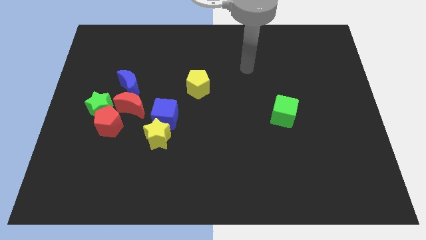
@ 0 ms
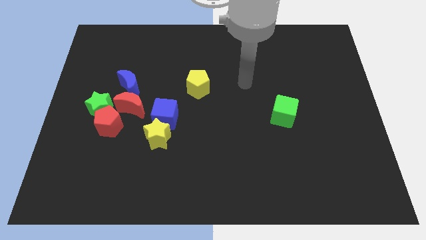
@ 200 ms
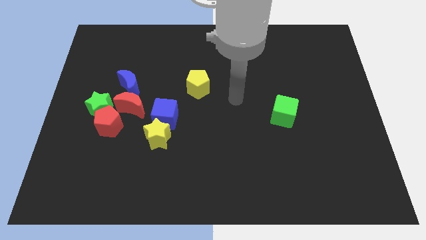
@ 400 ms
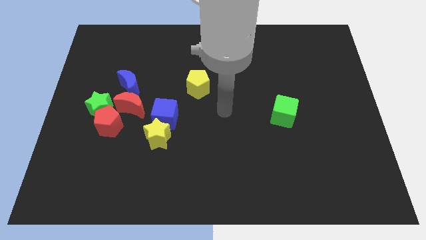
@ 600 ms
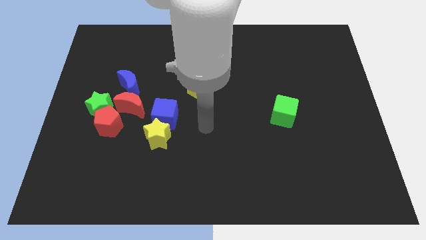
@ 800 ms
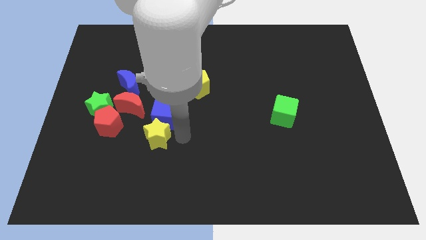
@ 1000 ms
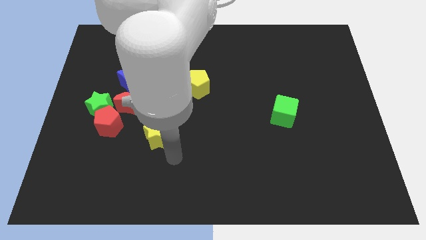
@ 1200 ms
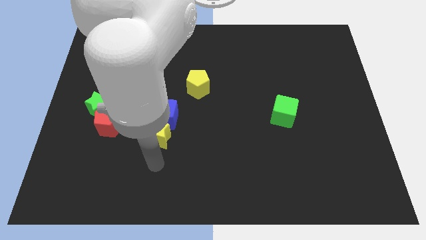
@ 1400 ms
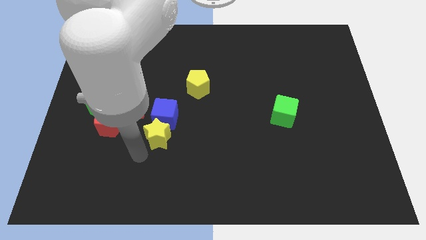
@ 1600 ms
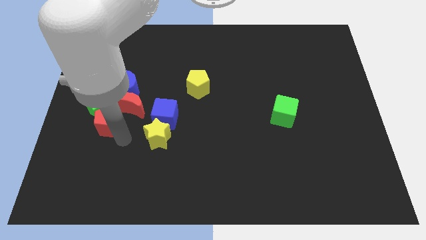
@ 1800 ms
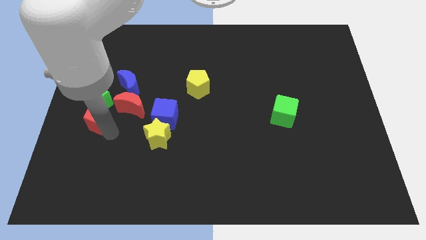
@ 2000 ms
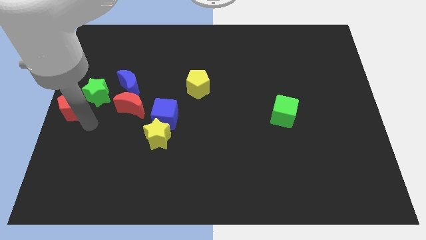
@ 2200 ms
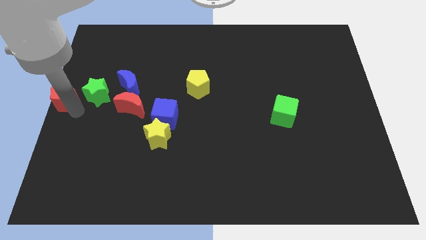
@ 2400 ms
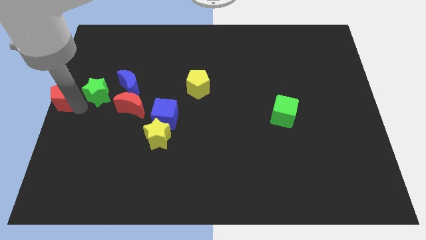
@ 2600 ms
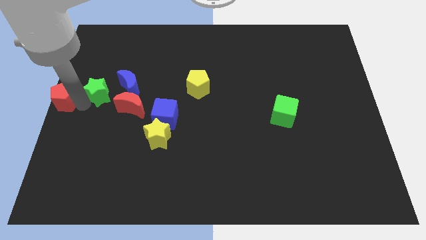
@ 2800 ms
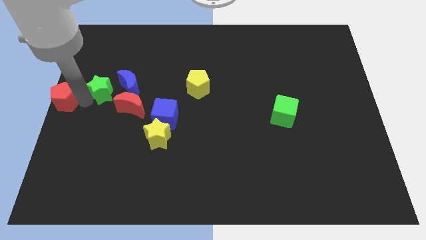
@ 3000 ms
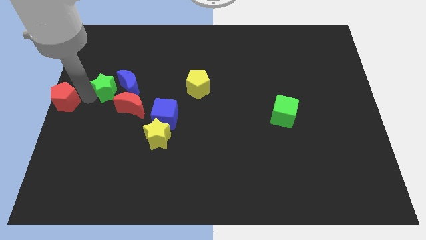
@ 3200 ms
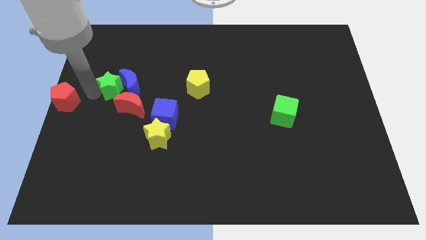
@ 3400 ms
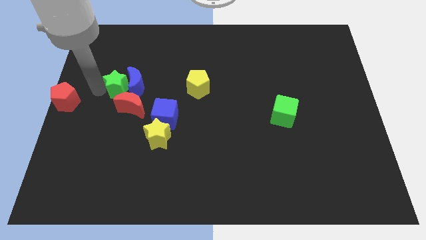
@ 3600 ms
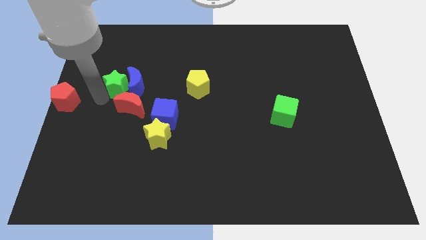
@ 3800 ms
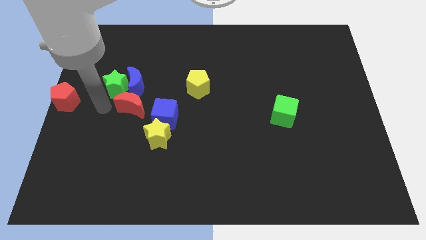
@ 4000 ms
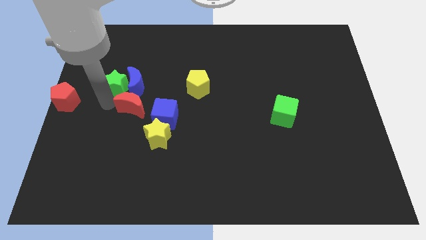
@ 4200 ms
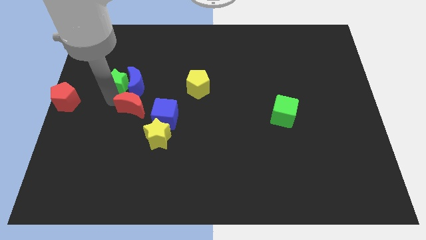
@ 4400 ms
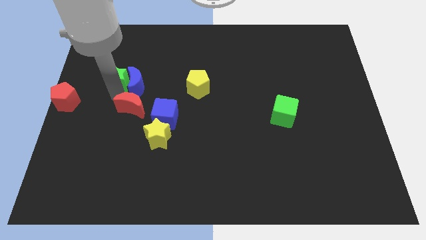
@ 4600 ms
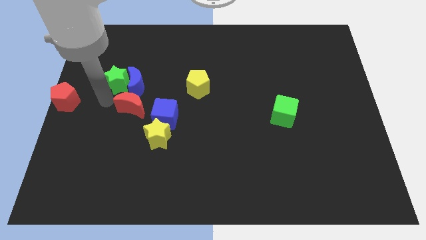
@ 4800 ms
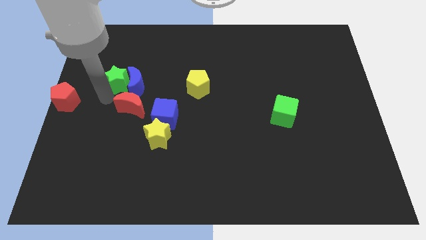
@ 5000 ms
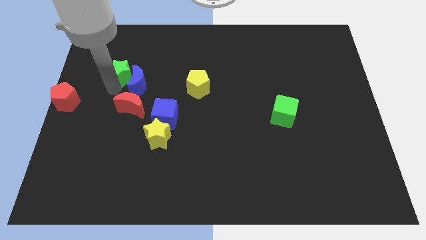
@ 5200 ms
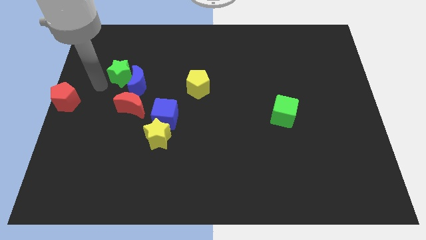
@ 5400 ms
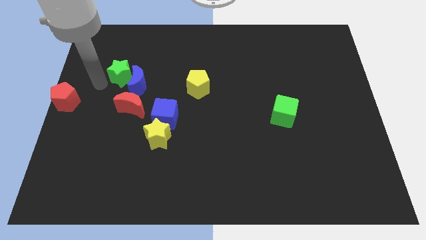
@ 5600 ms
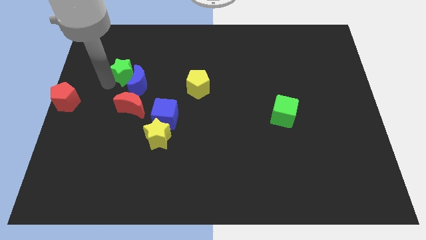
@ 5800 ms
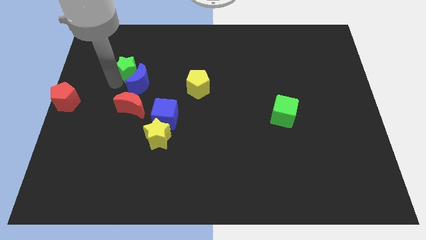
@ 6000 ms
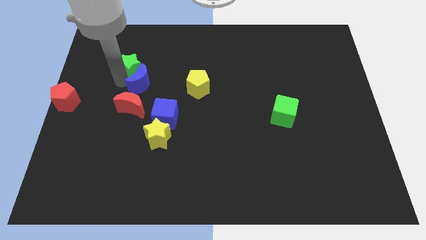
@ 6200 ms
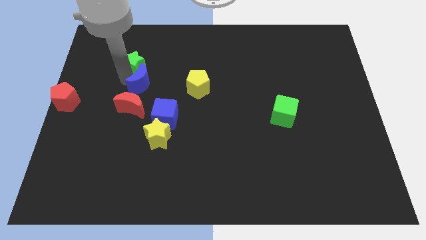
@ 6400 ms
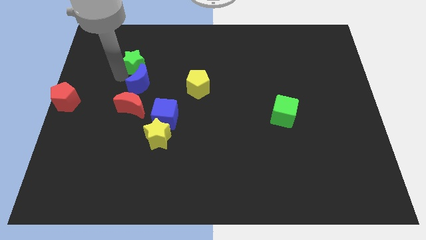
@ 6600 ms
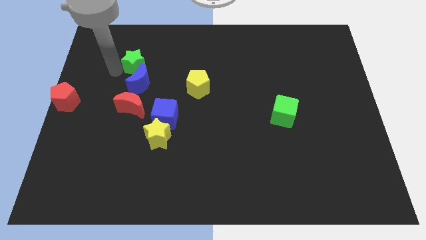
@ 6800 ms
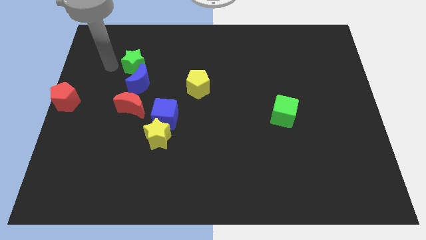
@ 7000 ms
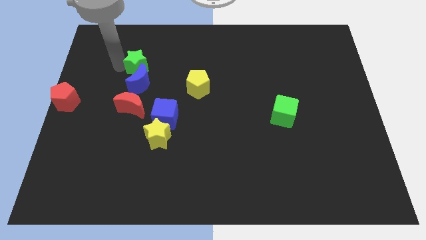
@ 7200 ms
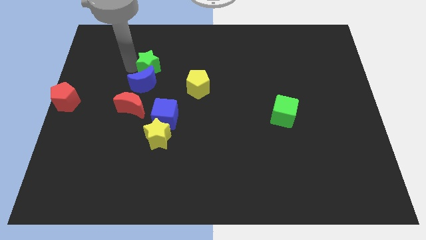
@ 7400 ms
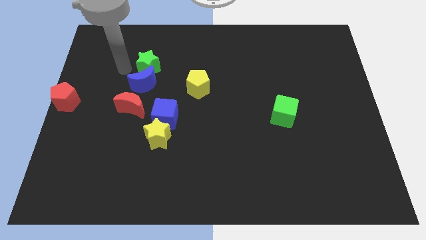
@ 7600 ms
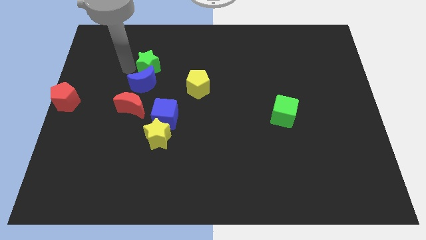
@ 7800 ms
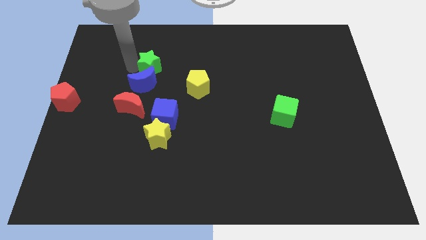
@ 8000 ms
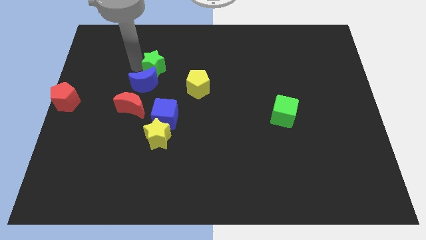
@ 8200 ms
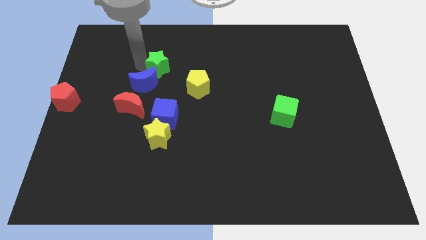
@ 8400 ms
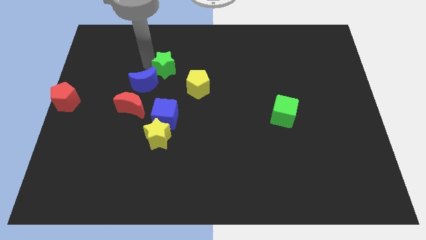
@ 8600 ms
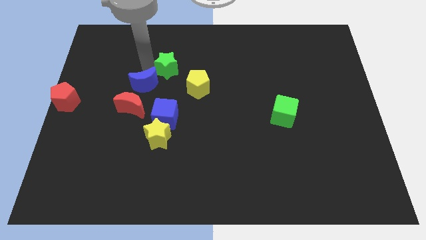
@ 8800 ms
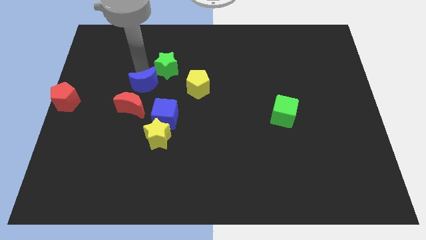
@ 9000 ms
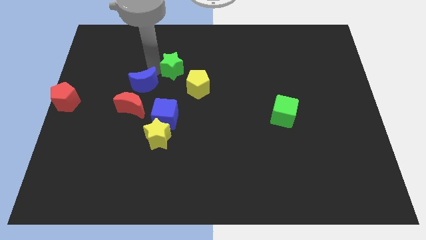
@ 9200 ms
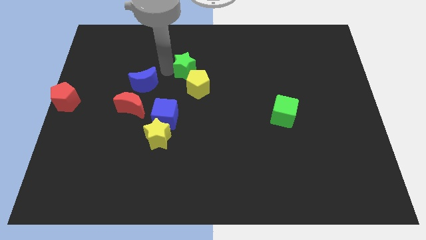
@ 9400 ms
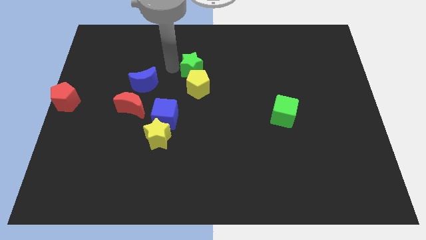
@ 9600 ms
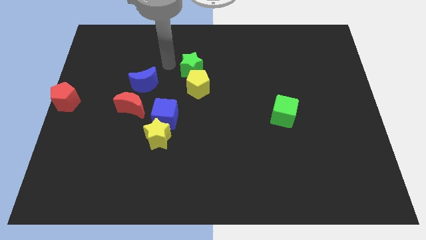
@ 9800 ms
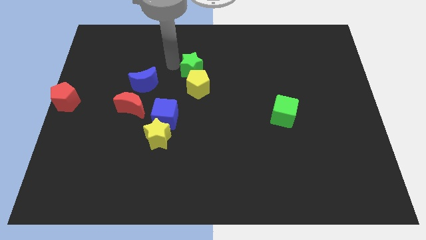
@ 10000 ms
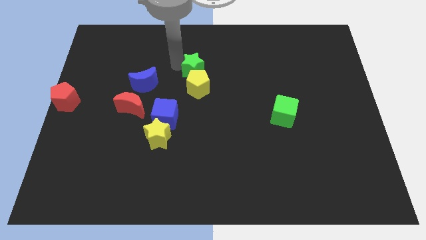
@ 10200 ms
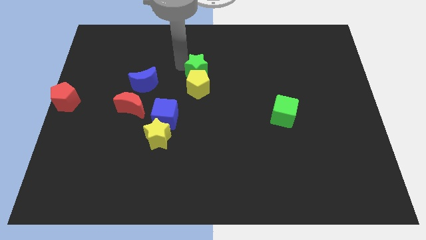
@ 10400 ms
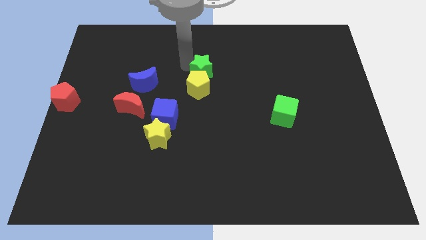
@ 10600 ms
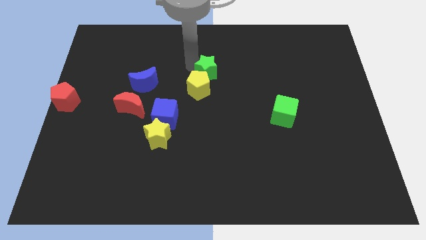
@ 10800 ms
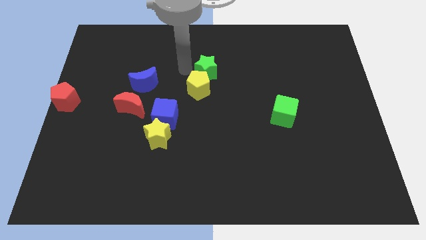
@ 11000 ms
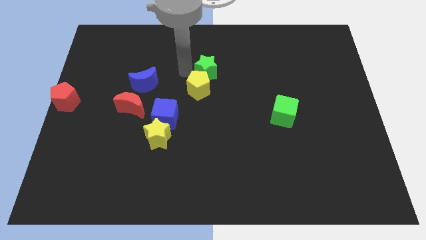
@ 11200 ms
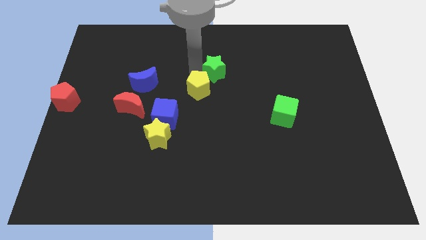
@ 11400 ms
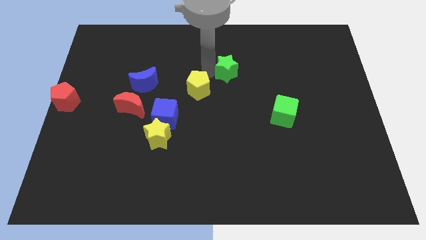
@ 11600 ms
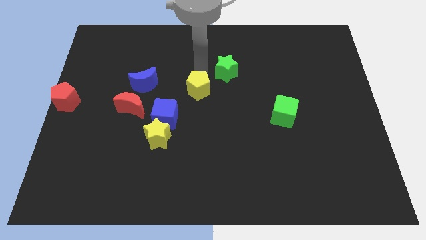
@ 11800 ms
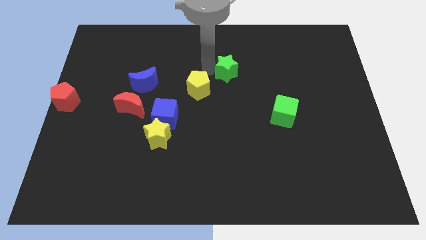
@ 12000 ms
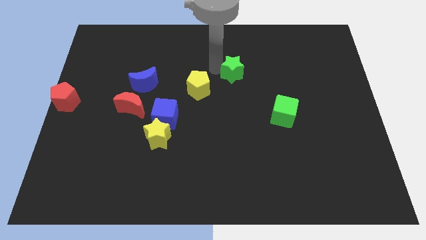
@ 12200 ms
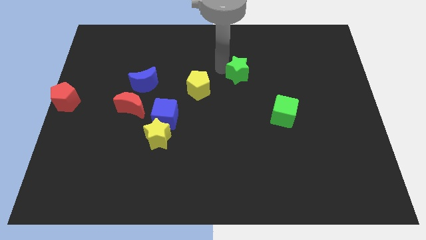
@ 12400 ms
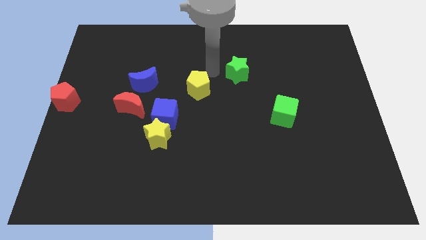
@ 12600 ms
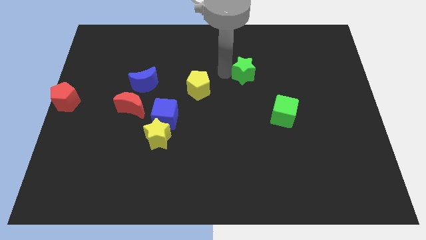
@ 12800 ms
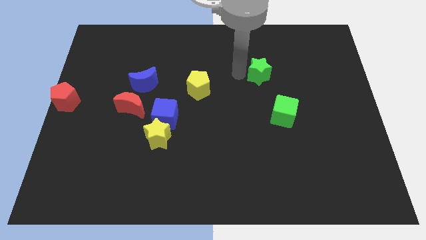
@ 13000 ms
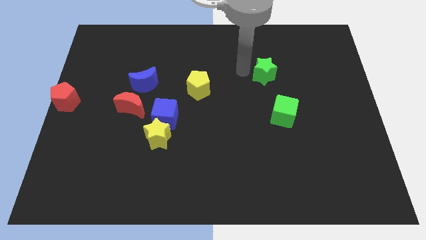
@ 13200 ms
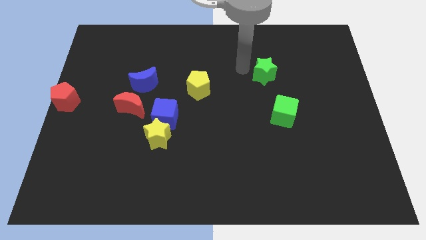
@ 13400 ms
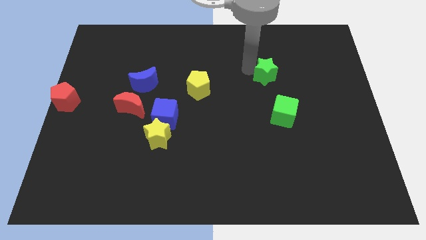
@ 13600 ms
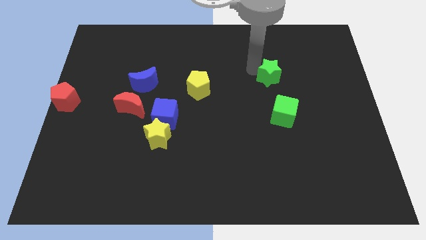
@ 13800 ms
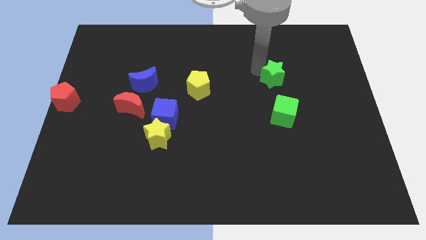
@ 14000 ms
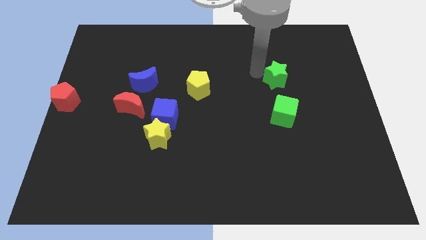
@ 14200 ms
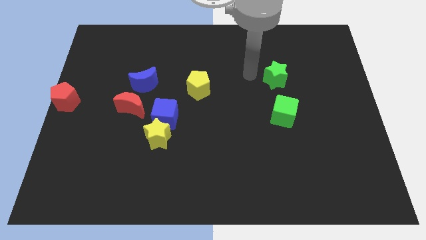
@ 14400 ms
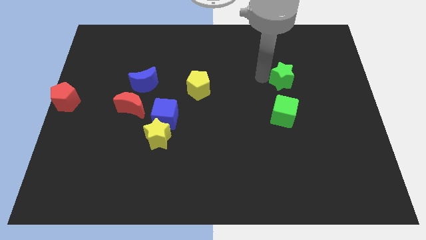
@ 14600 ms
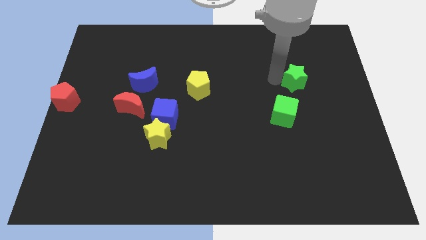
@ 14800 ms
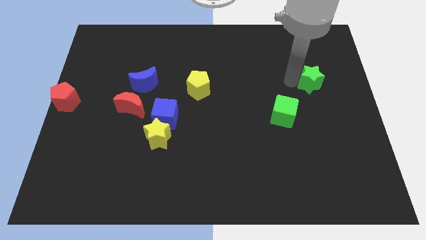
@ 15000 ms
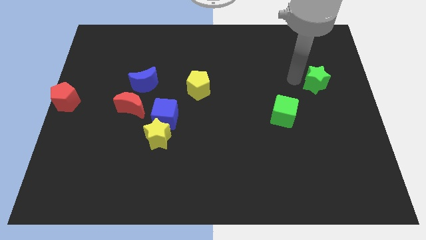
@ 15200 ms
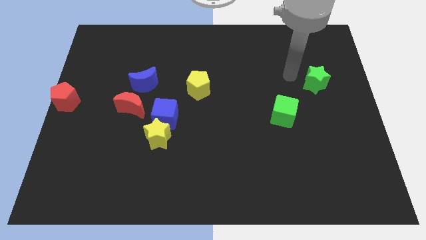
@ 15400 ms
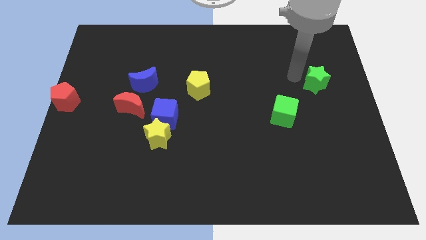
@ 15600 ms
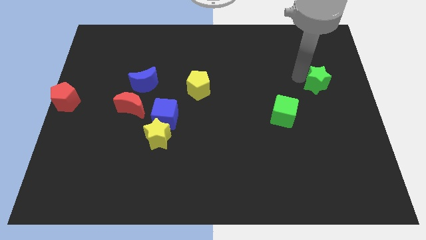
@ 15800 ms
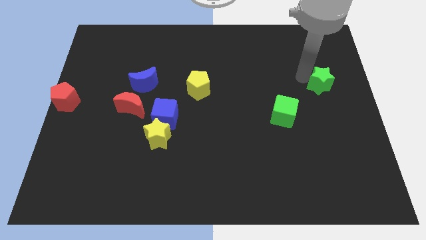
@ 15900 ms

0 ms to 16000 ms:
slide the green star to the right side
